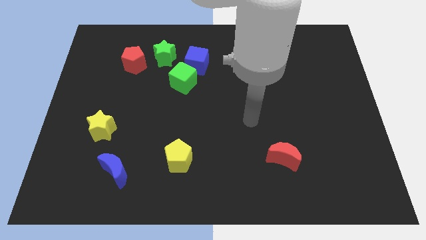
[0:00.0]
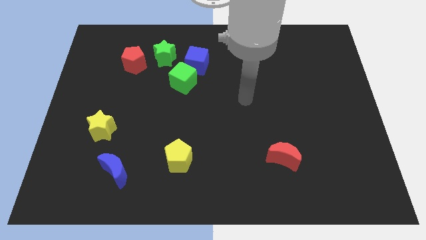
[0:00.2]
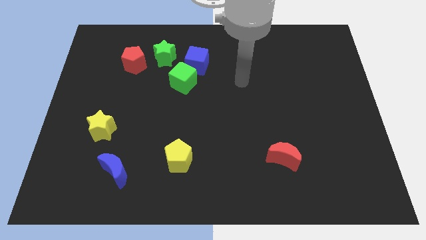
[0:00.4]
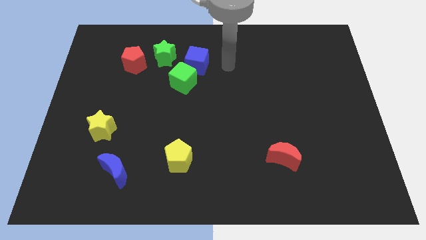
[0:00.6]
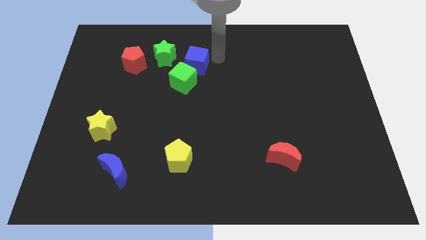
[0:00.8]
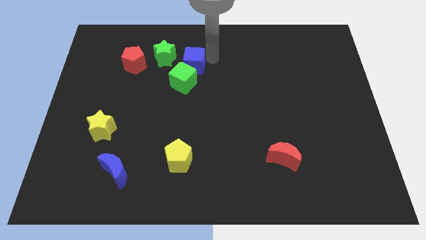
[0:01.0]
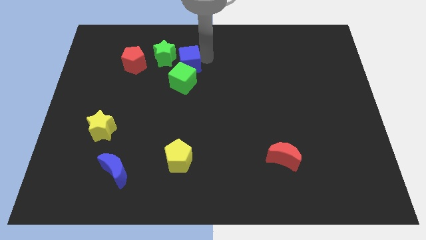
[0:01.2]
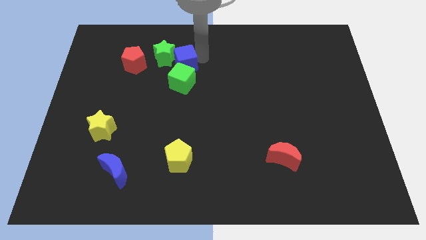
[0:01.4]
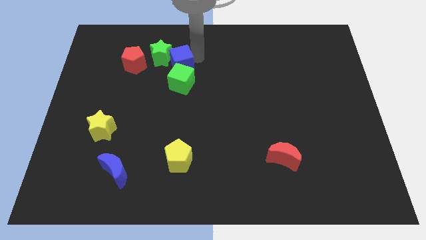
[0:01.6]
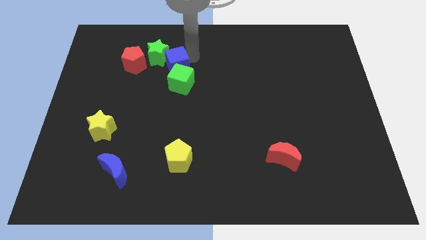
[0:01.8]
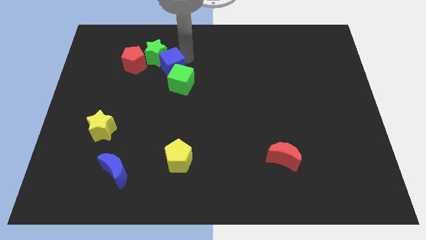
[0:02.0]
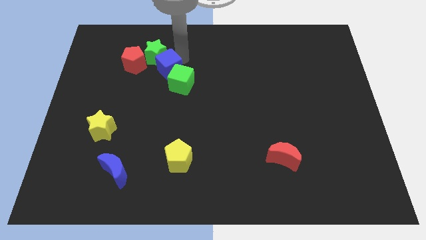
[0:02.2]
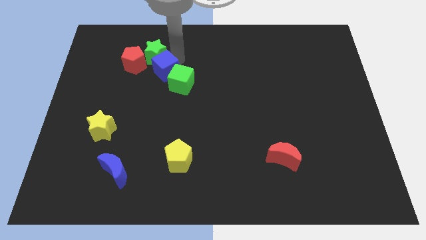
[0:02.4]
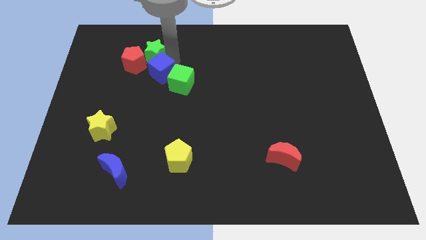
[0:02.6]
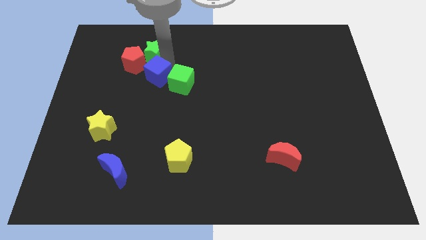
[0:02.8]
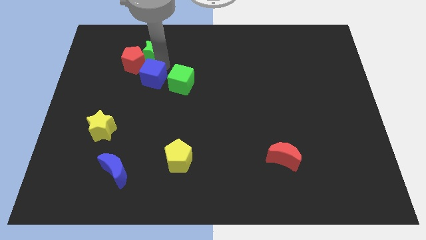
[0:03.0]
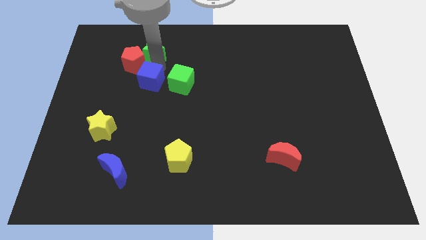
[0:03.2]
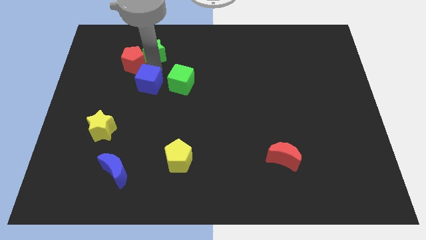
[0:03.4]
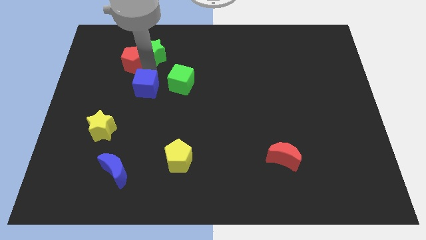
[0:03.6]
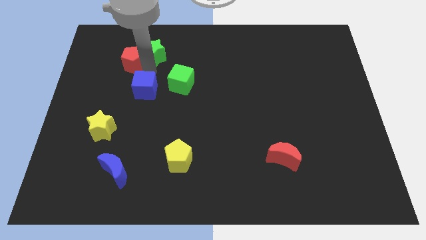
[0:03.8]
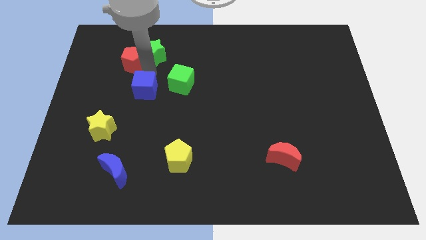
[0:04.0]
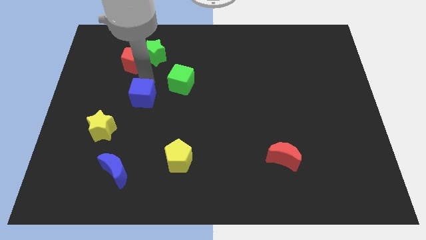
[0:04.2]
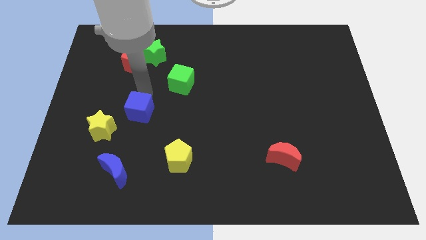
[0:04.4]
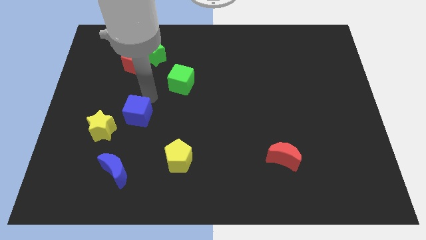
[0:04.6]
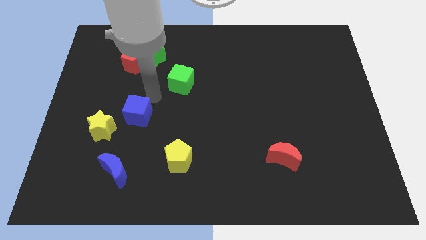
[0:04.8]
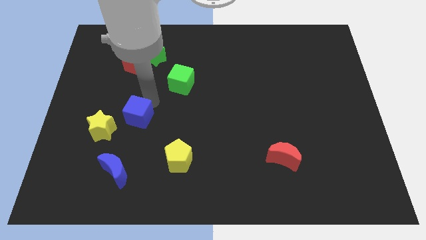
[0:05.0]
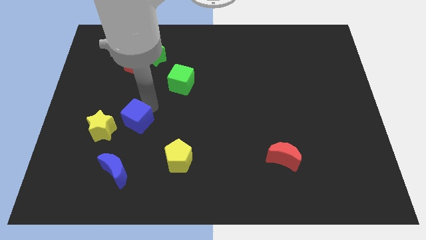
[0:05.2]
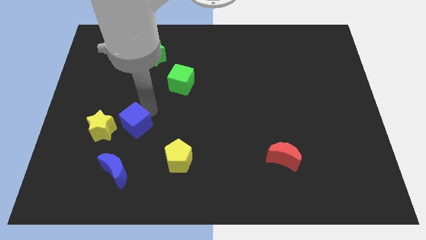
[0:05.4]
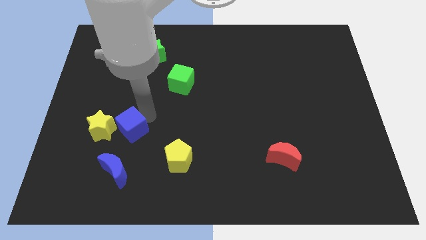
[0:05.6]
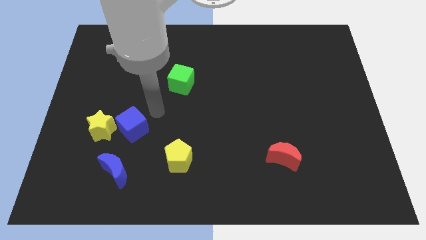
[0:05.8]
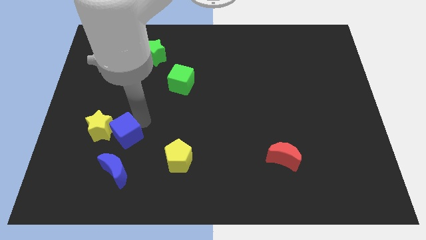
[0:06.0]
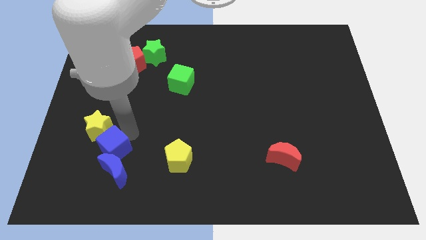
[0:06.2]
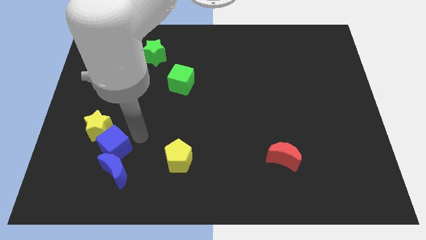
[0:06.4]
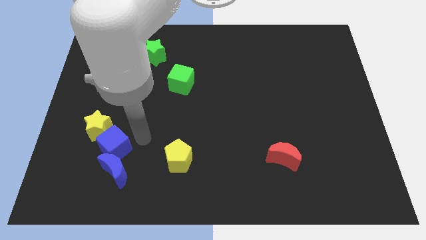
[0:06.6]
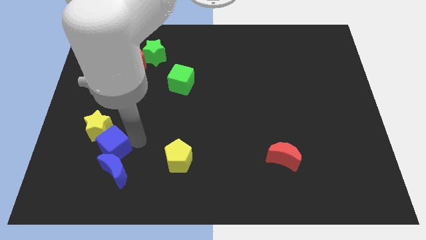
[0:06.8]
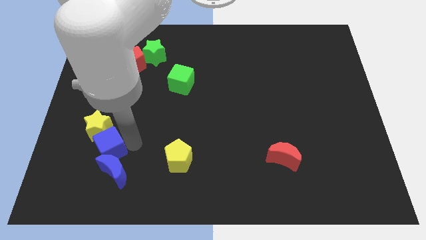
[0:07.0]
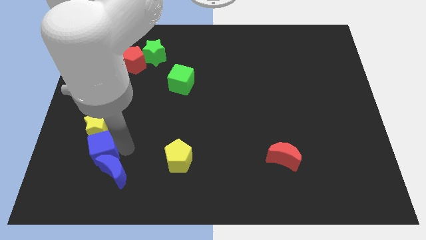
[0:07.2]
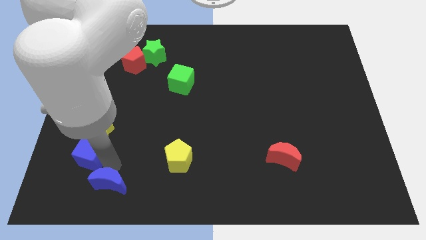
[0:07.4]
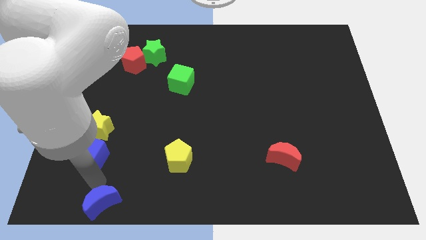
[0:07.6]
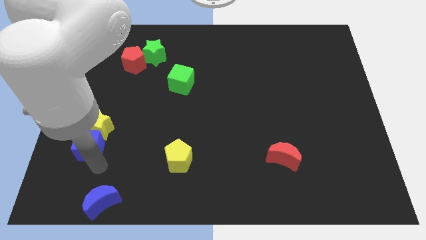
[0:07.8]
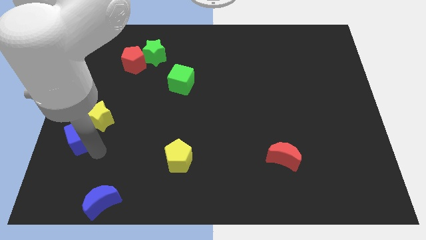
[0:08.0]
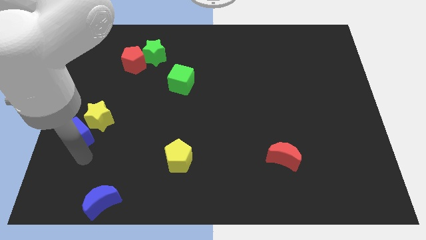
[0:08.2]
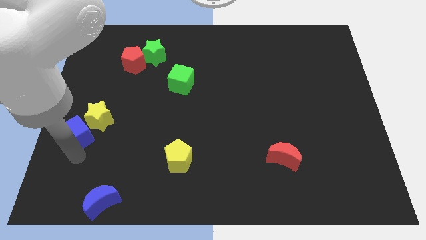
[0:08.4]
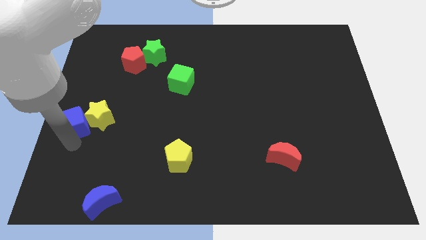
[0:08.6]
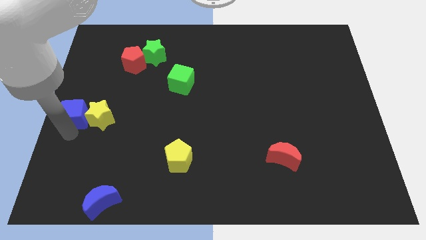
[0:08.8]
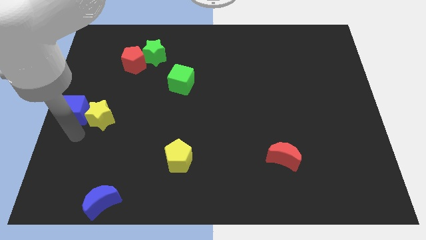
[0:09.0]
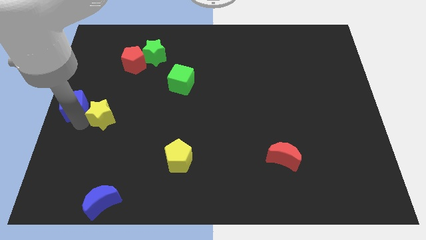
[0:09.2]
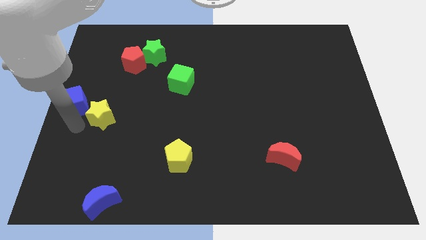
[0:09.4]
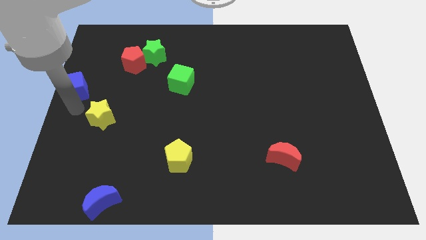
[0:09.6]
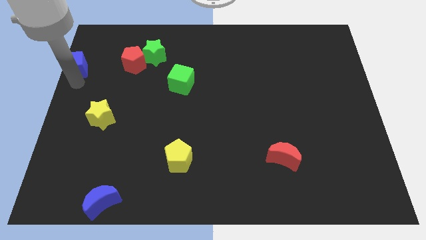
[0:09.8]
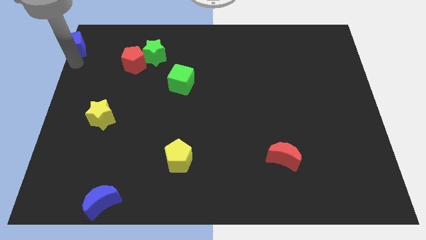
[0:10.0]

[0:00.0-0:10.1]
slide the blue cube to the top left
